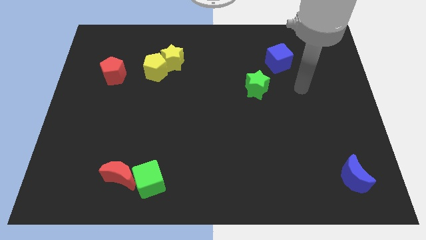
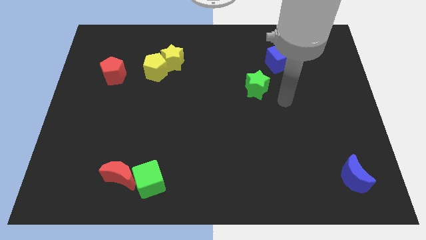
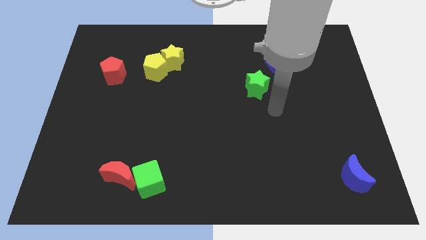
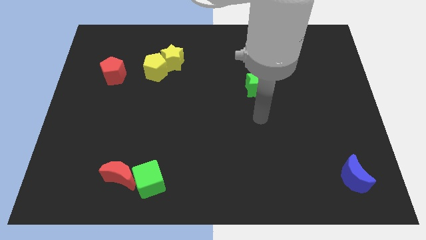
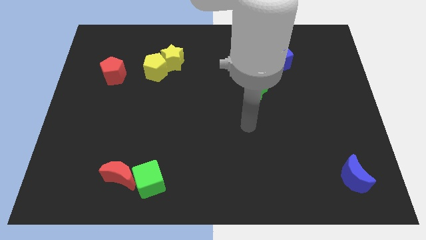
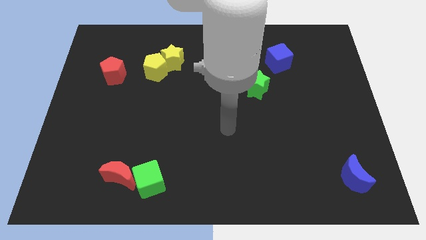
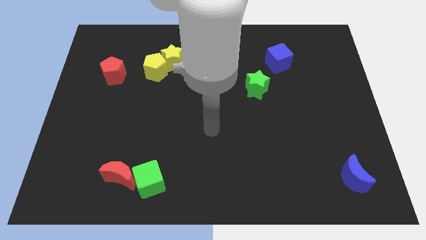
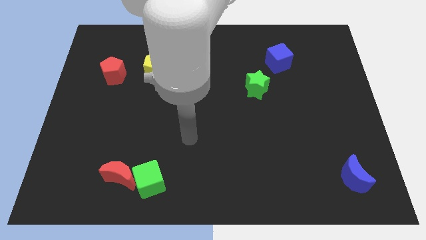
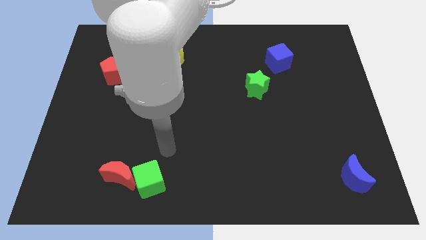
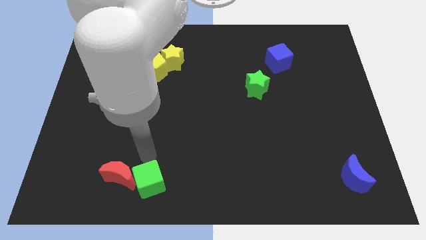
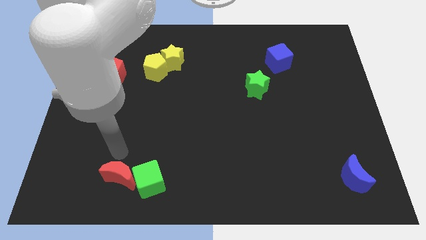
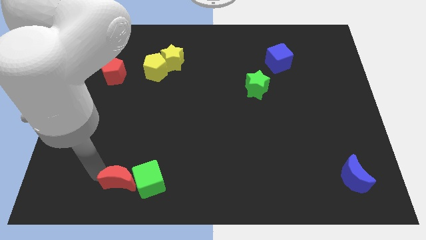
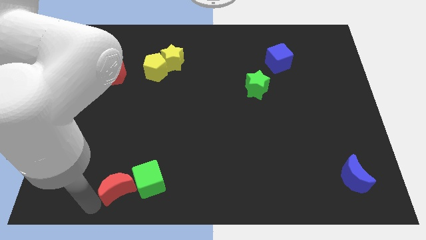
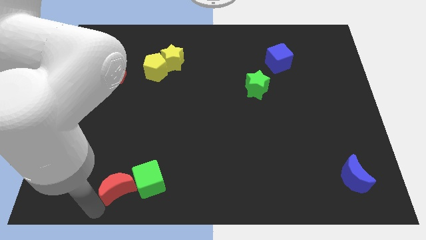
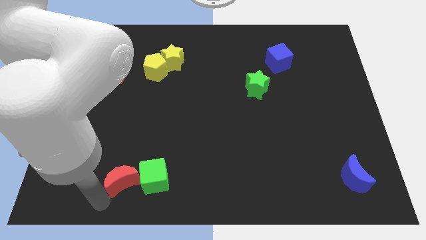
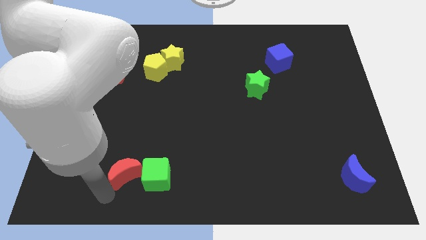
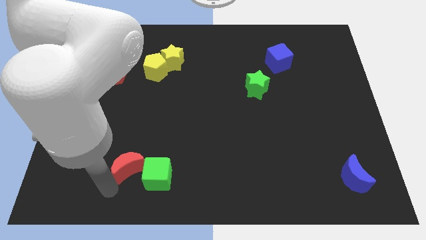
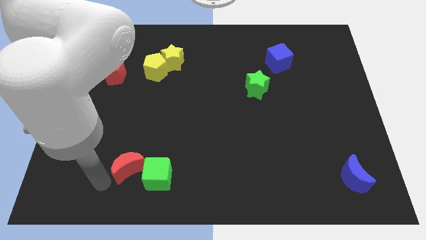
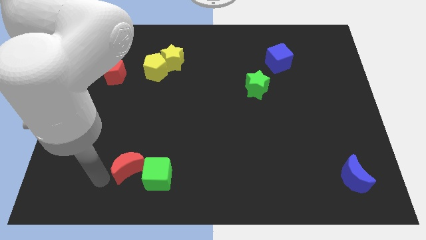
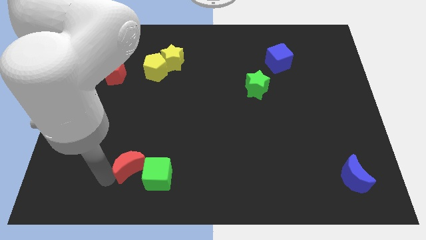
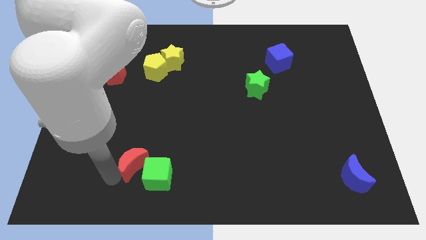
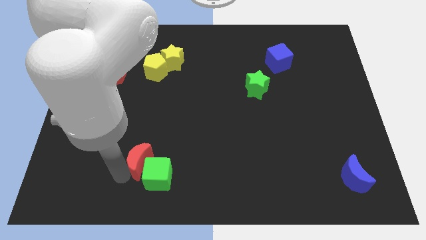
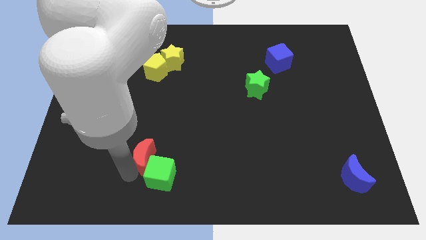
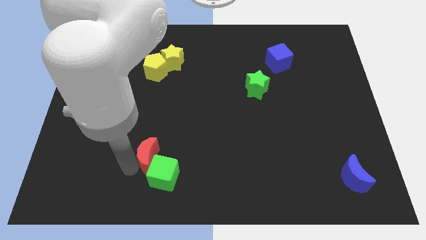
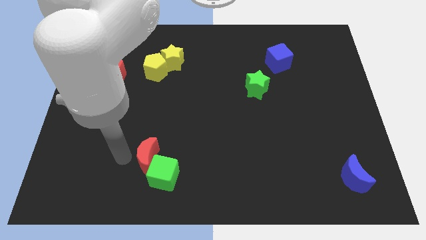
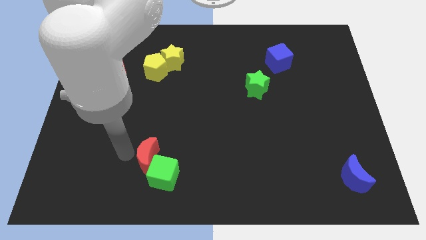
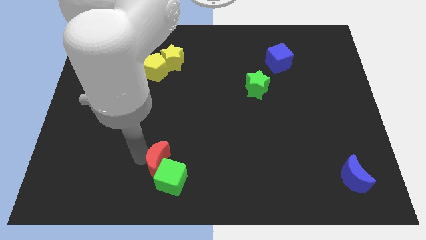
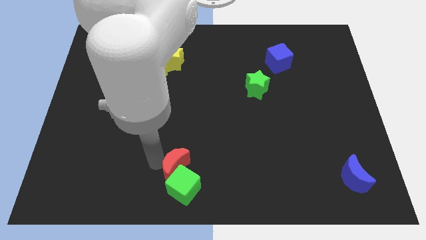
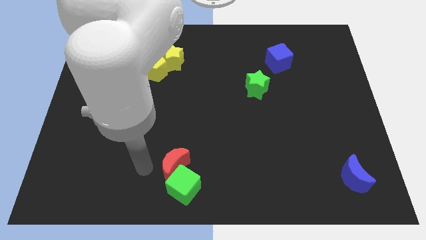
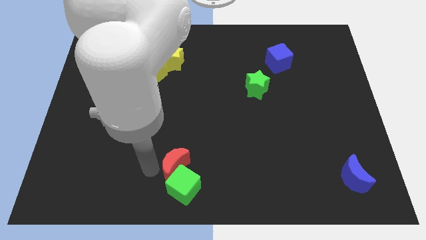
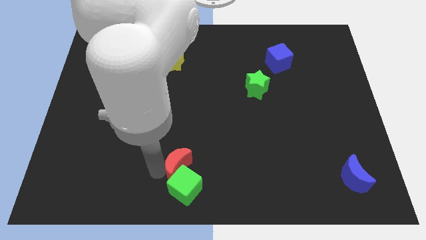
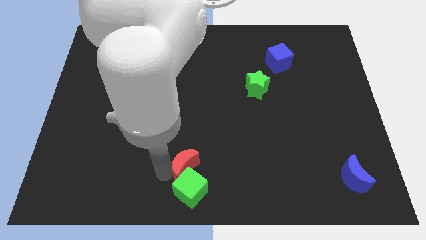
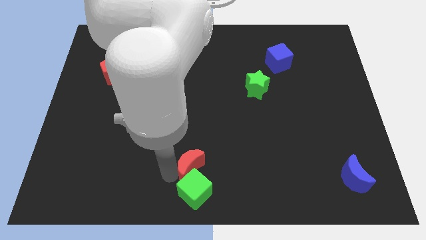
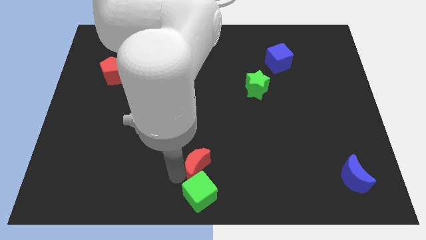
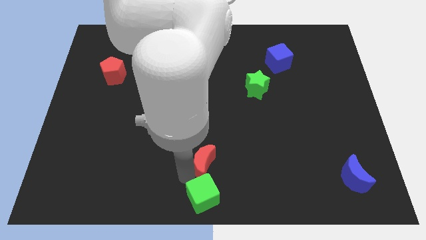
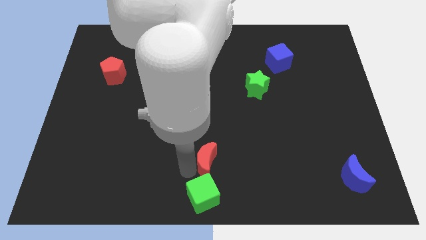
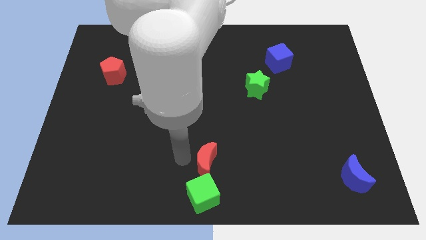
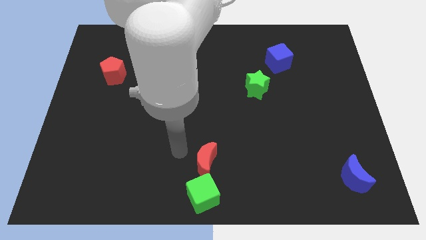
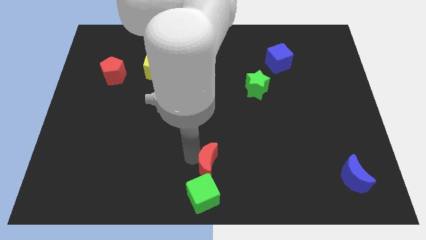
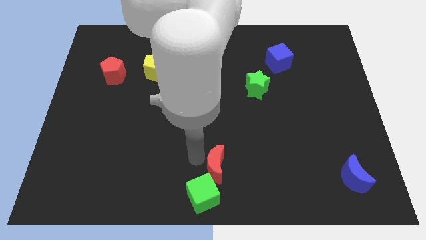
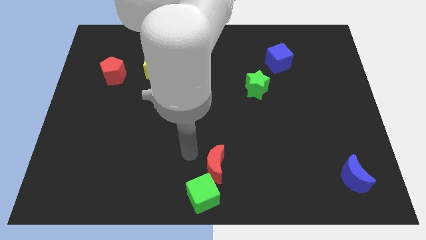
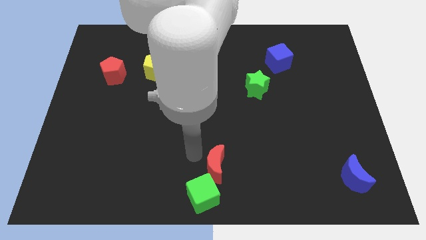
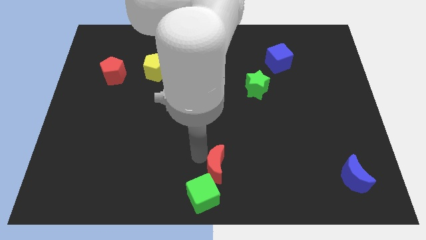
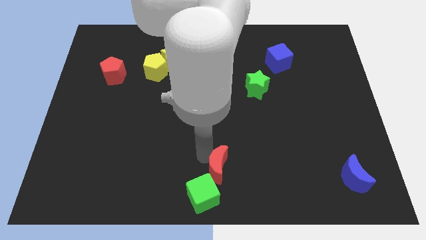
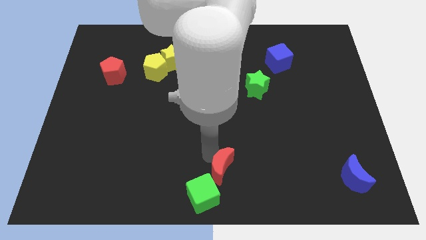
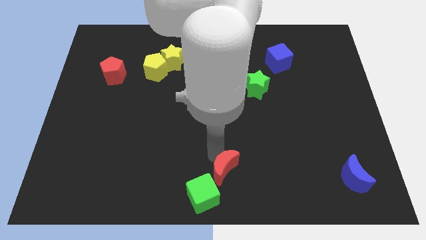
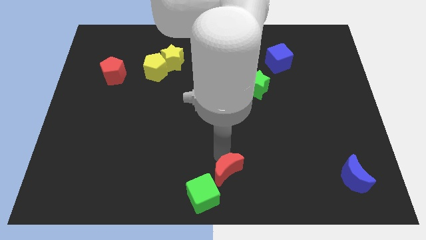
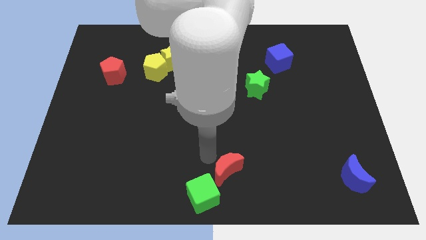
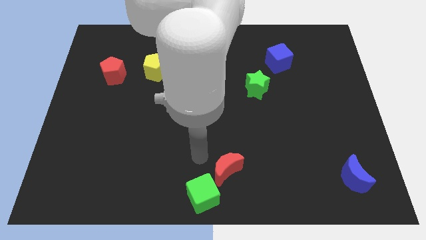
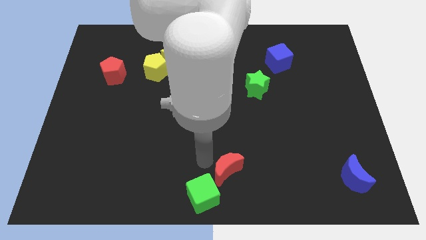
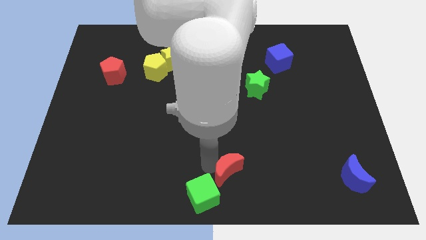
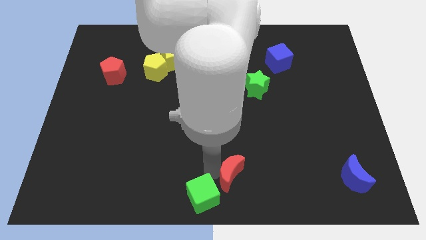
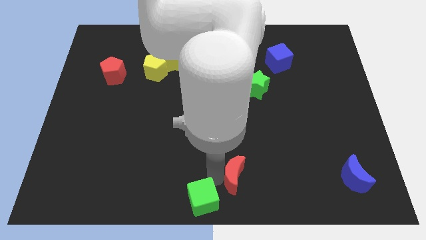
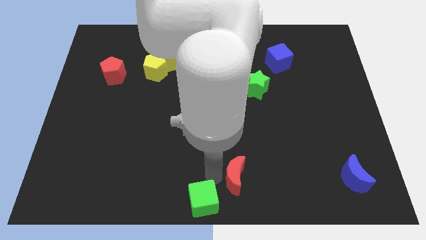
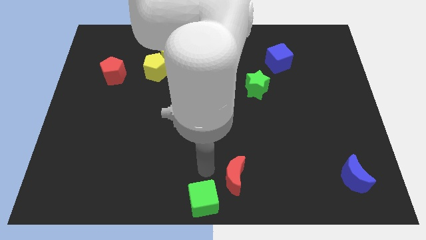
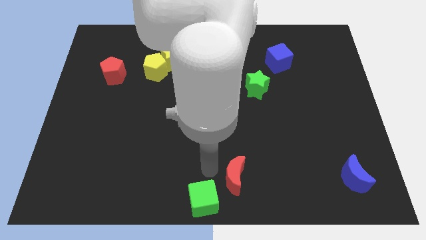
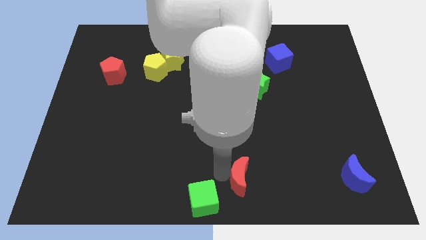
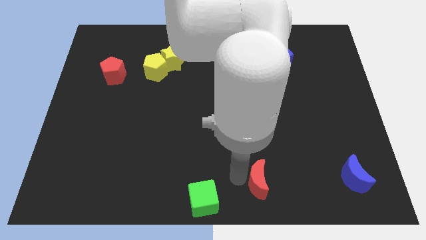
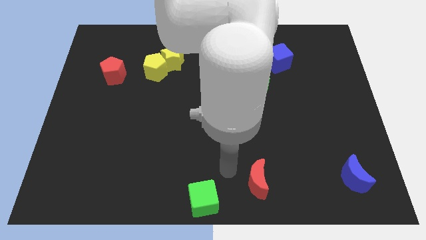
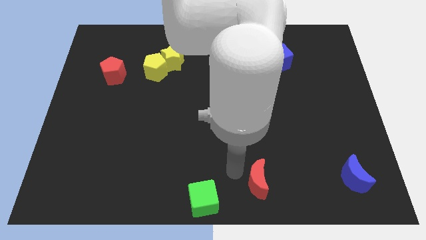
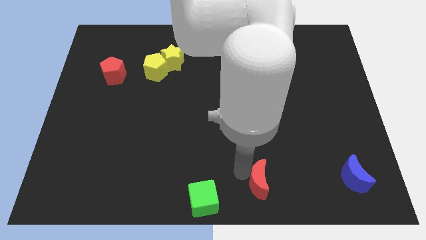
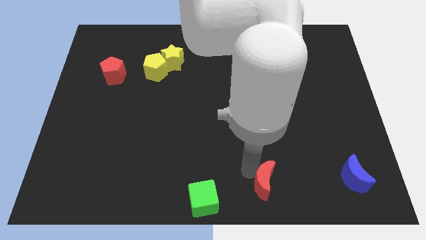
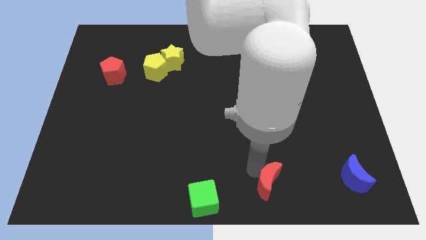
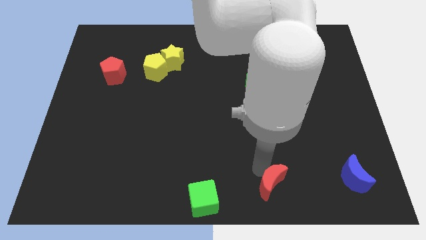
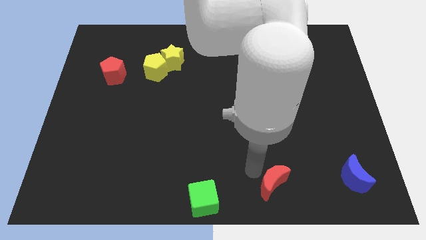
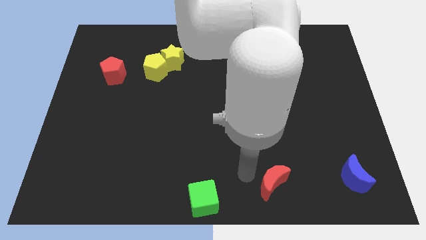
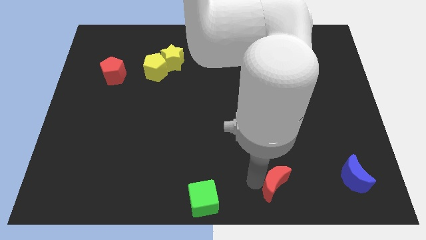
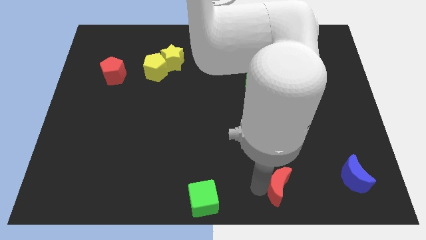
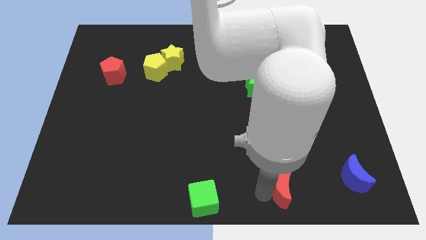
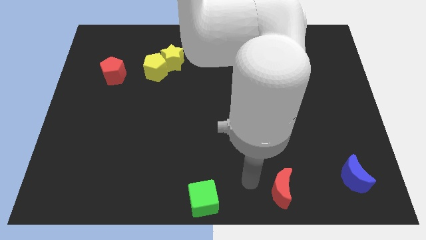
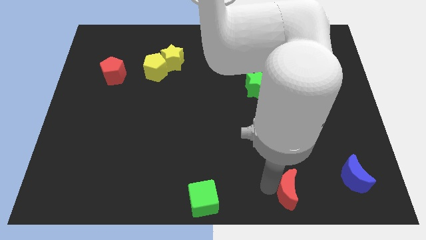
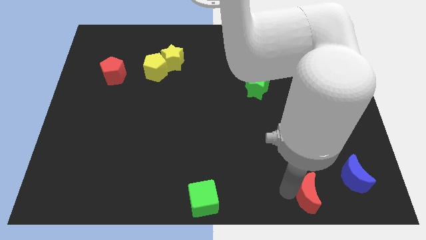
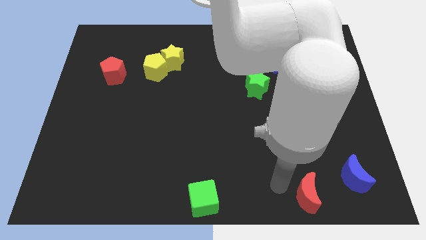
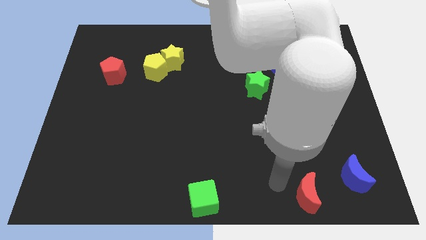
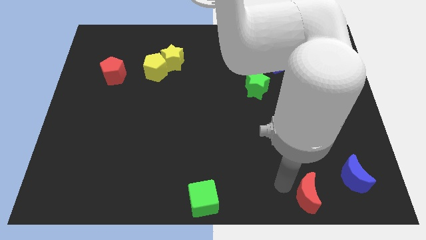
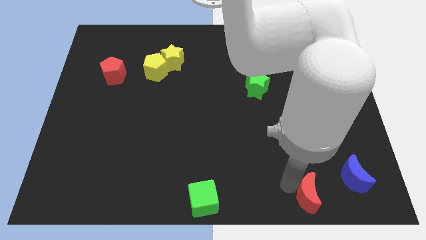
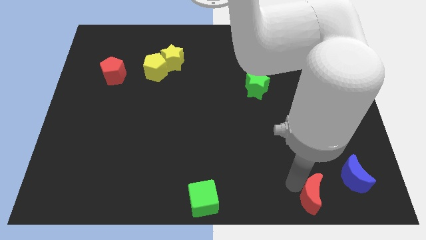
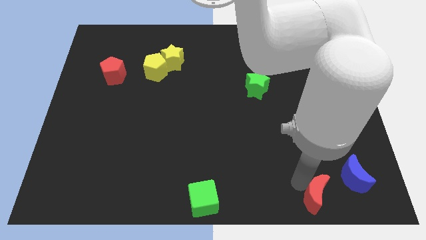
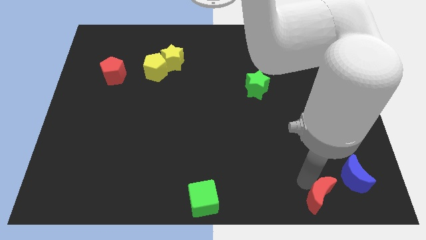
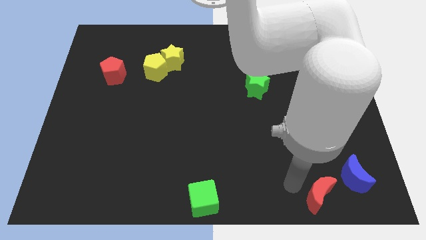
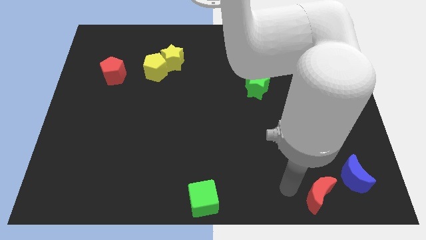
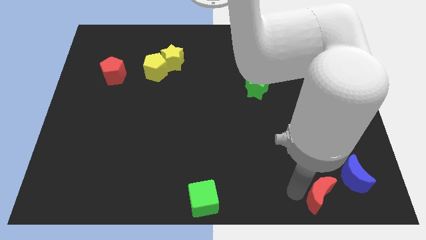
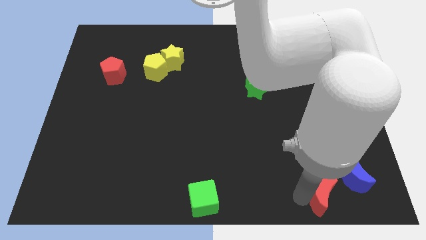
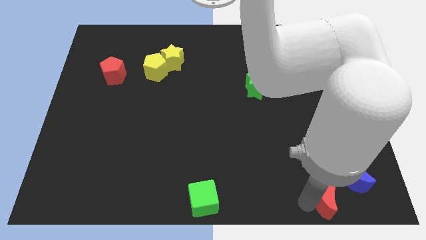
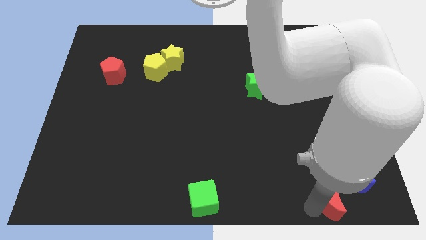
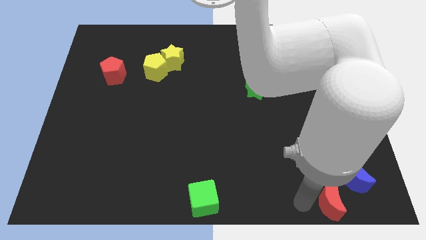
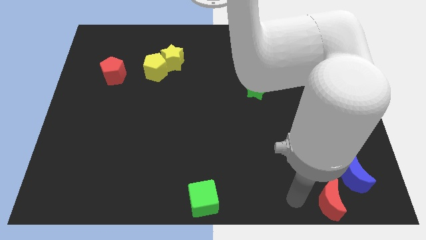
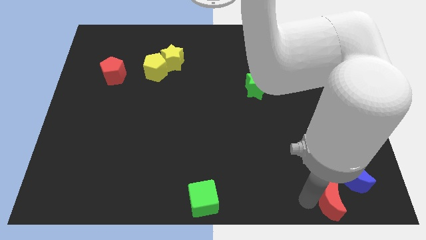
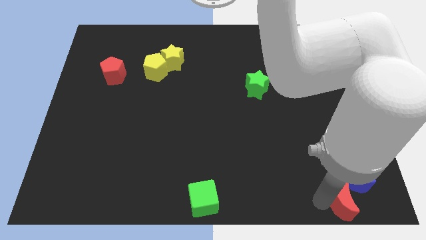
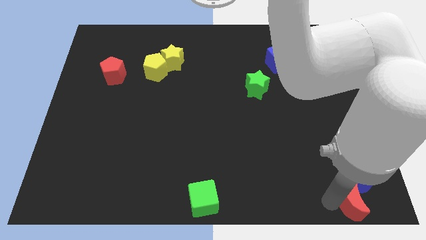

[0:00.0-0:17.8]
put the red moon to the bottom right corner
